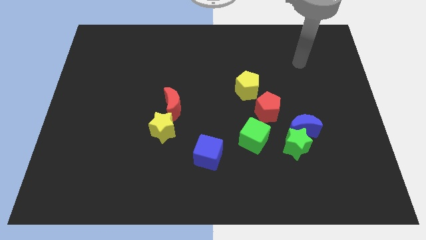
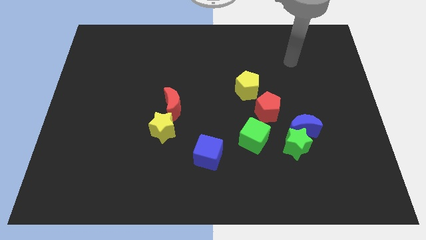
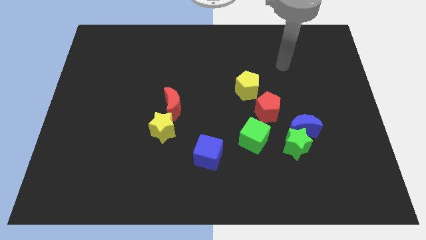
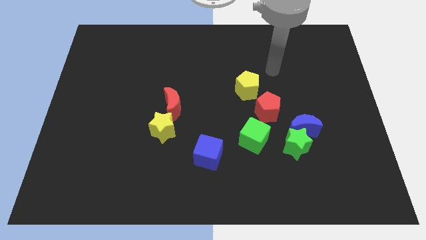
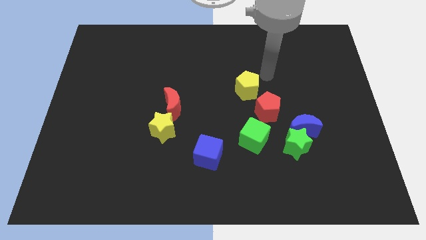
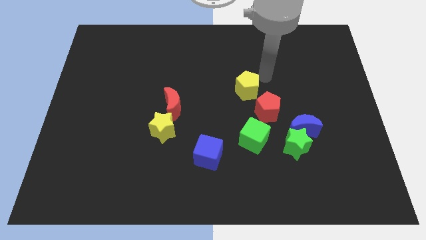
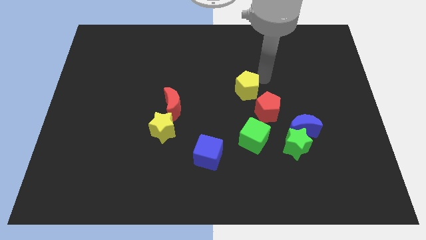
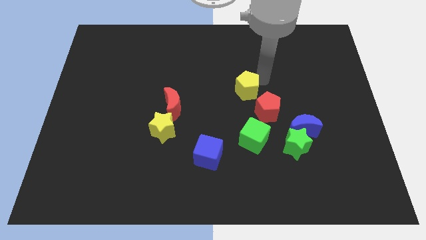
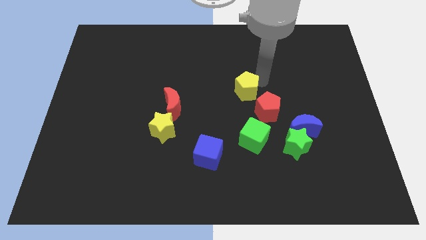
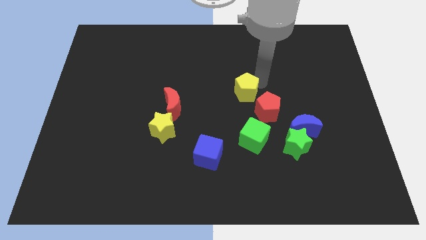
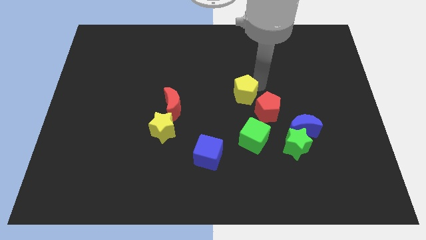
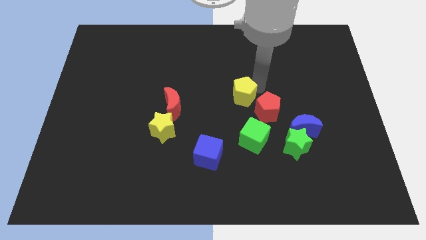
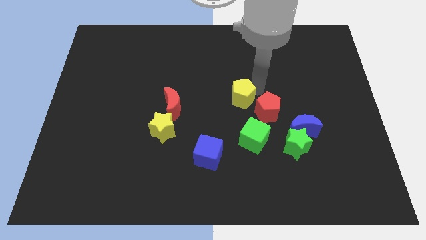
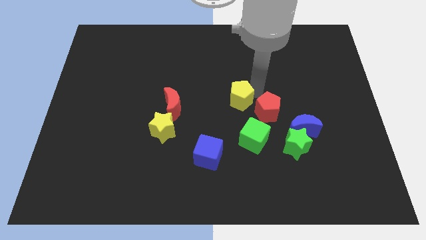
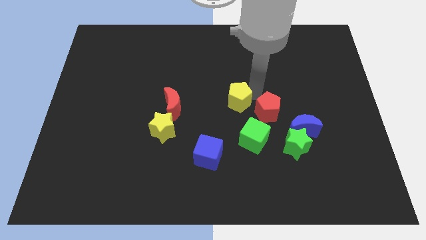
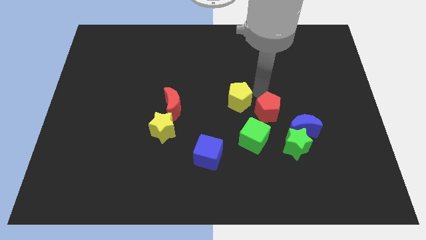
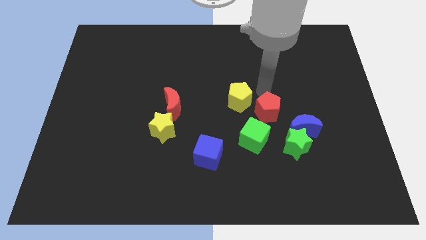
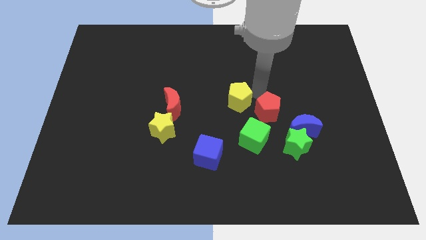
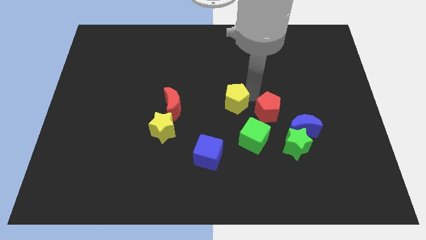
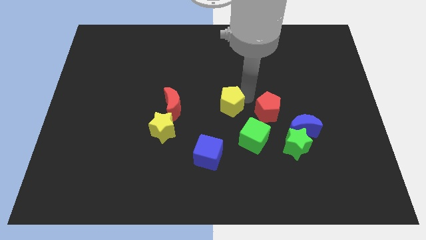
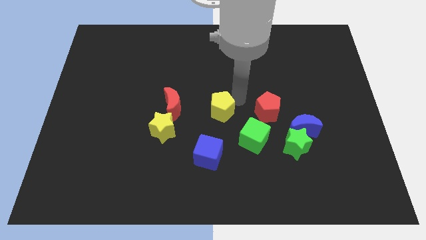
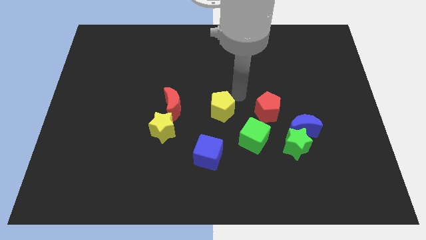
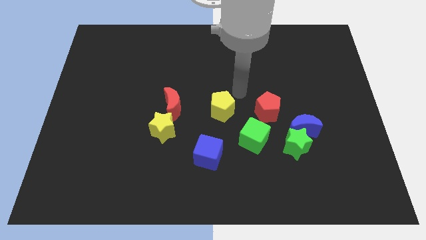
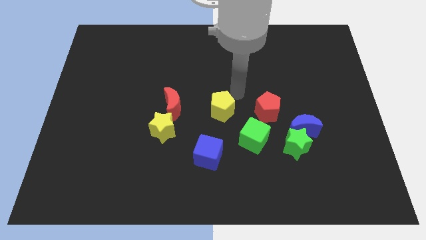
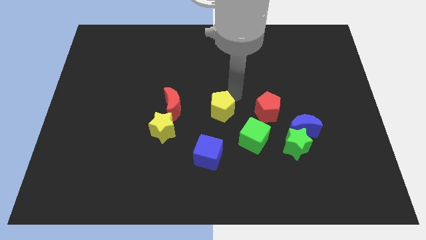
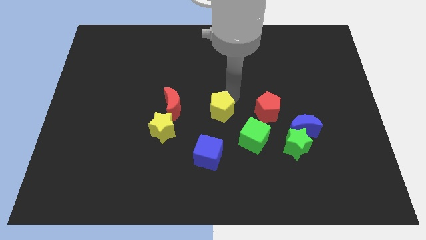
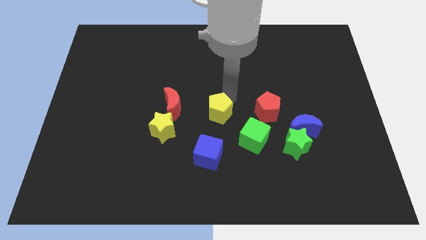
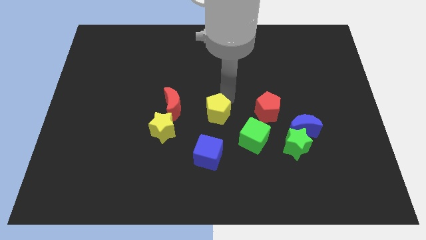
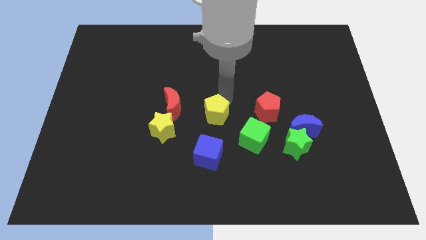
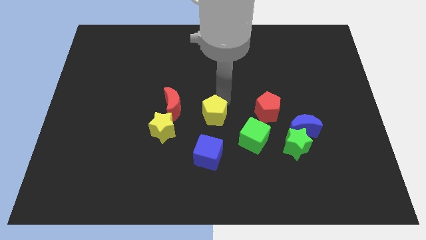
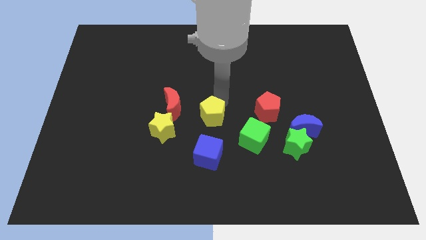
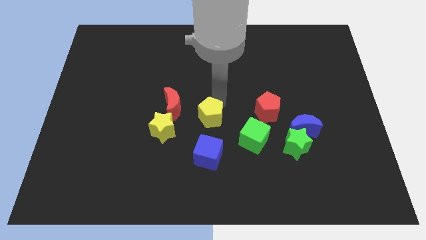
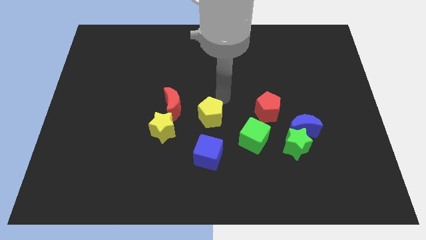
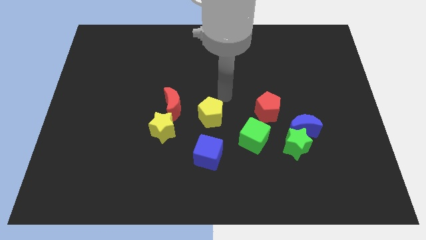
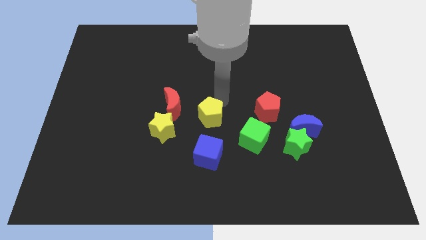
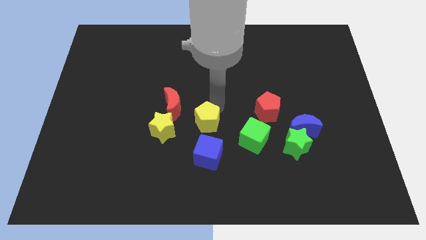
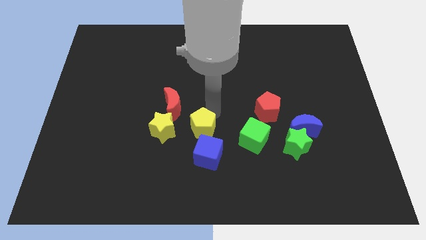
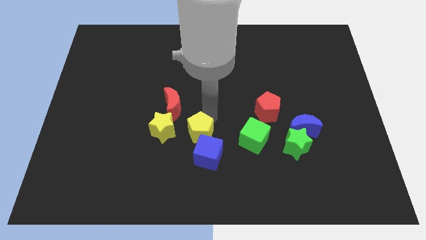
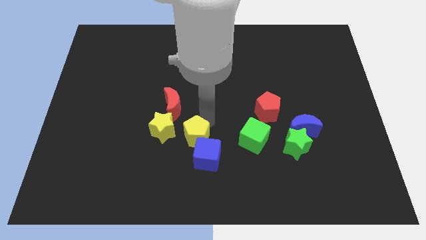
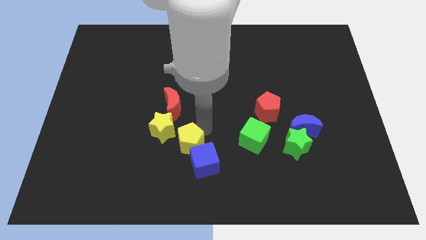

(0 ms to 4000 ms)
push the yellow pentagon downwards and to the left

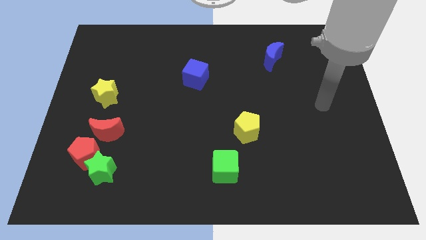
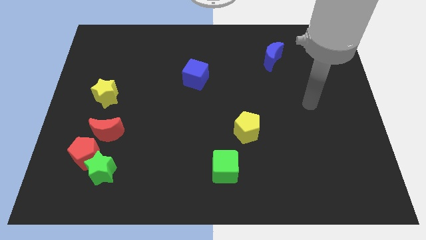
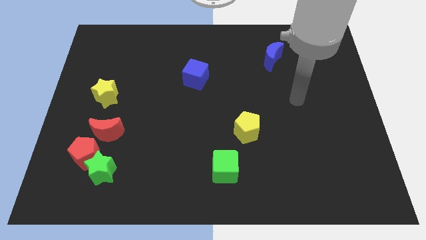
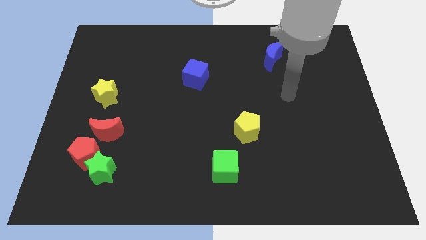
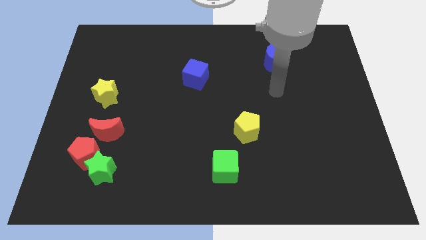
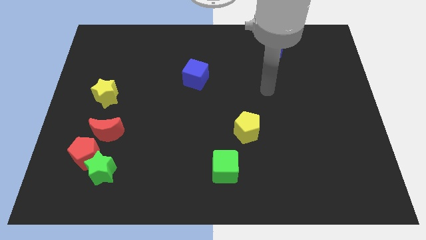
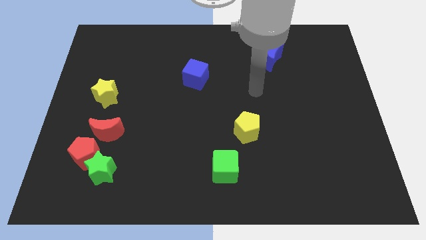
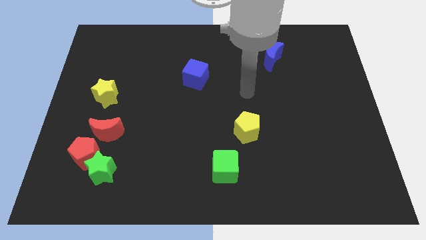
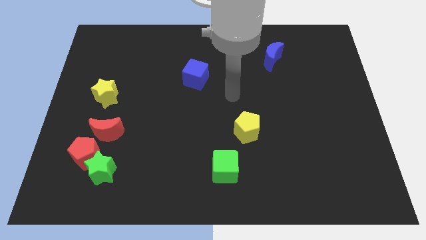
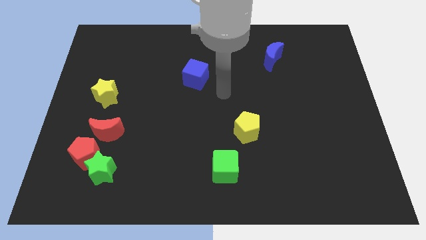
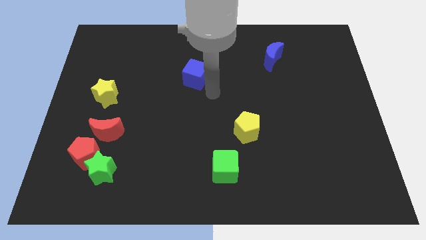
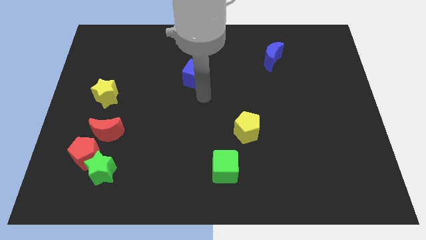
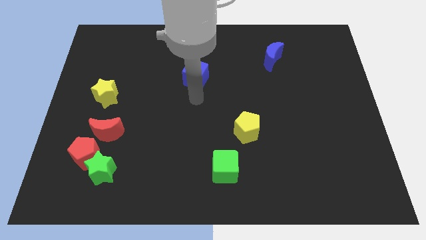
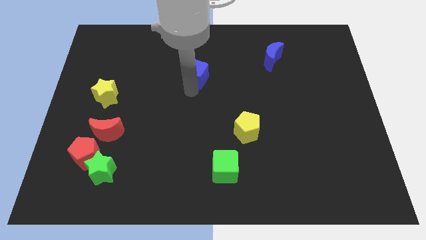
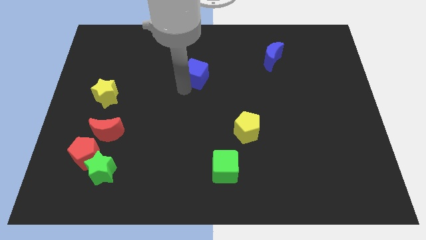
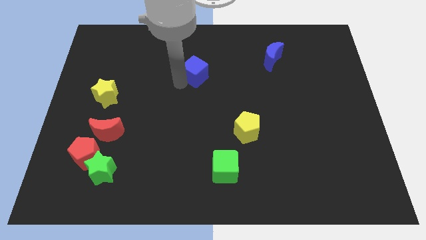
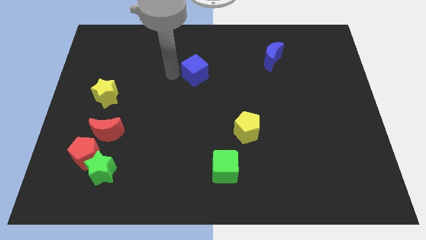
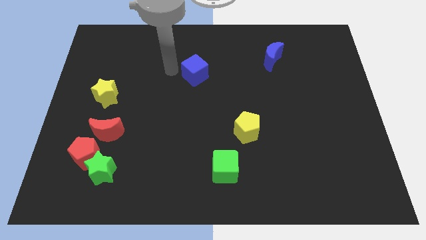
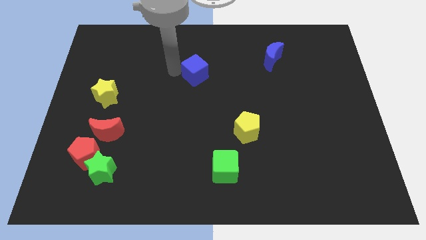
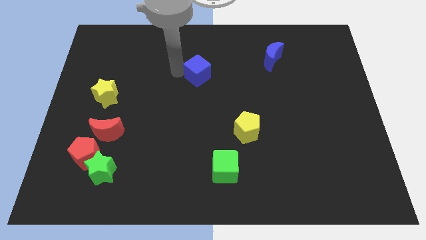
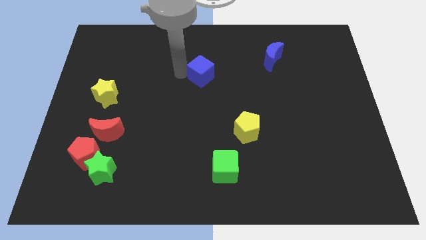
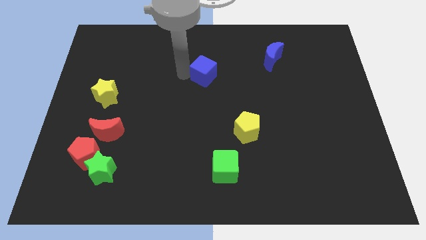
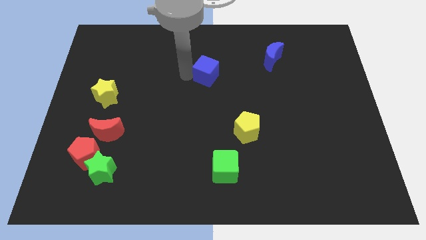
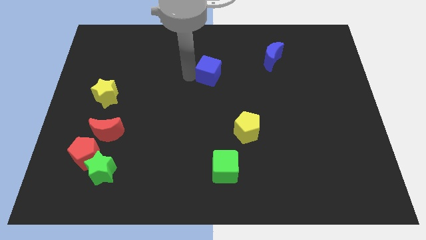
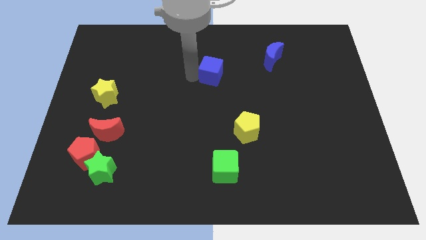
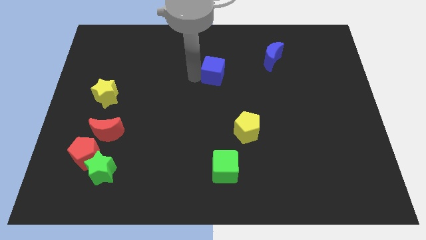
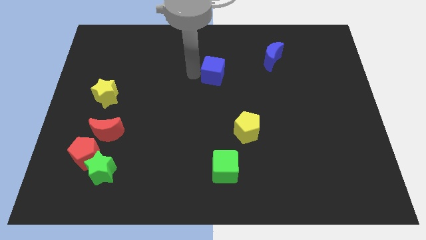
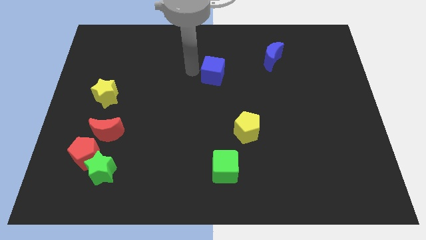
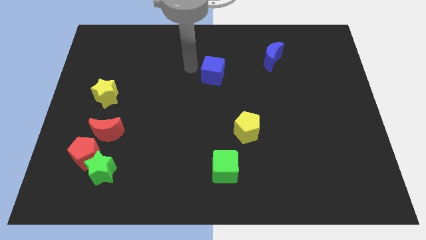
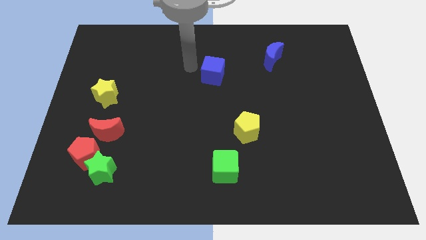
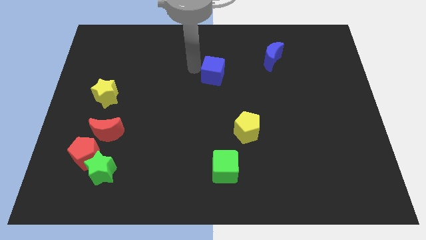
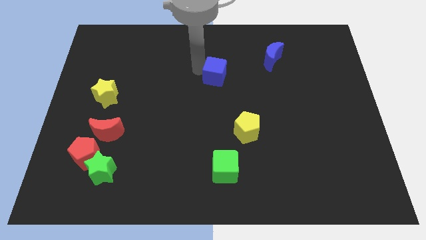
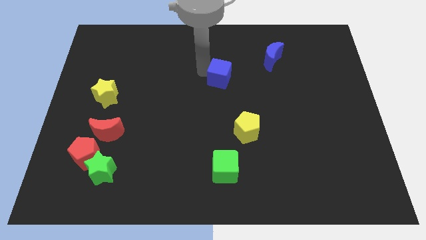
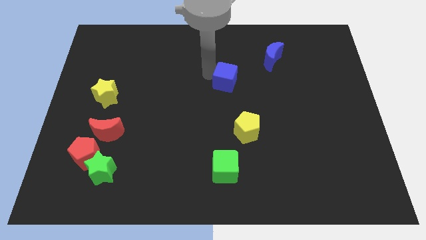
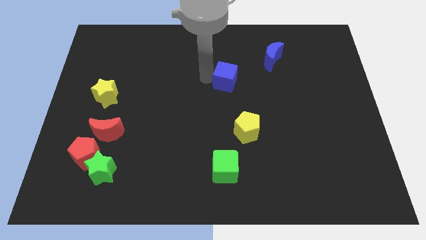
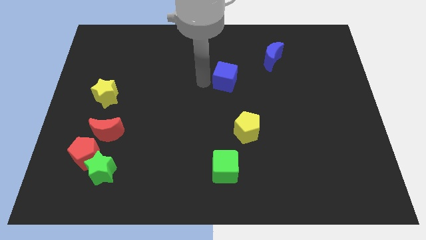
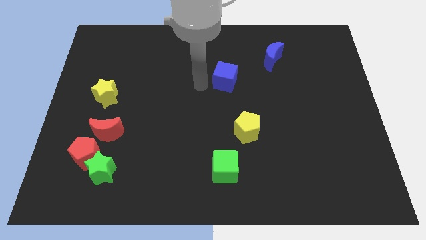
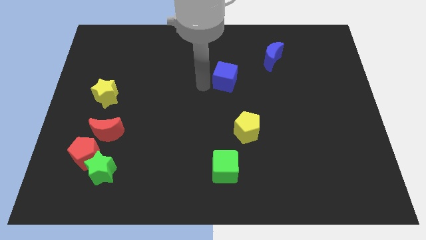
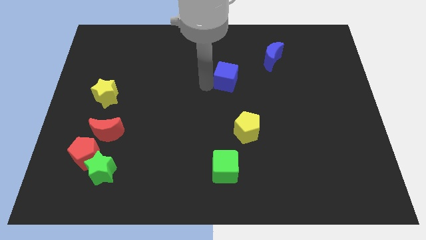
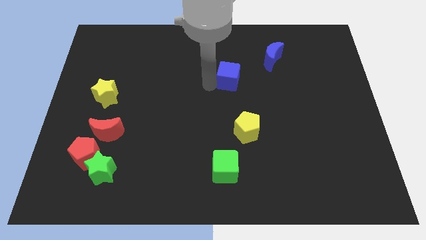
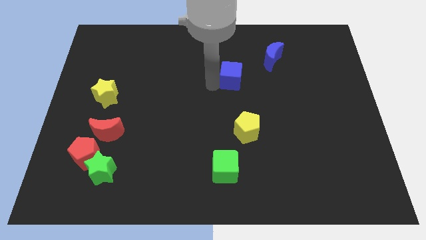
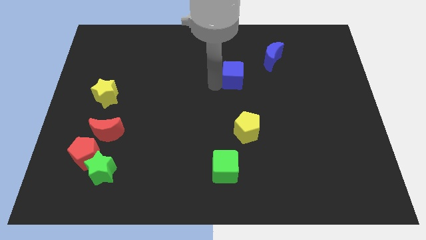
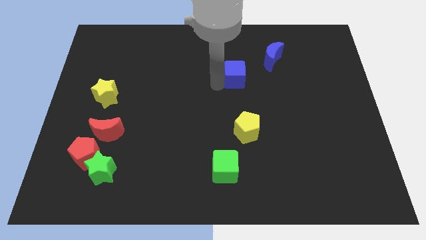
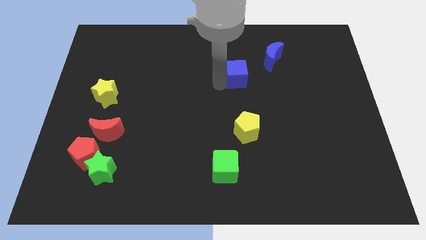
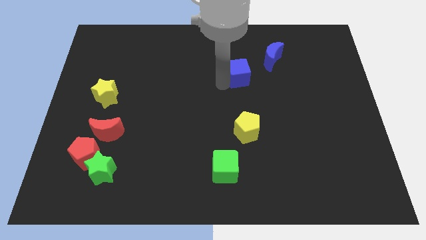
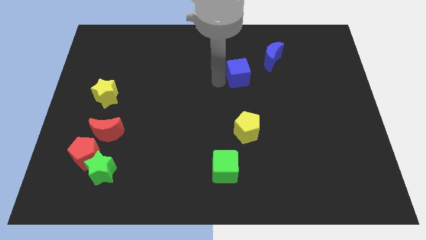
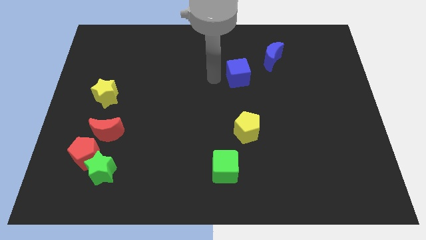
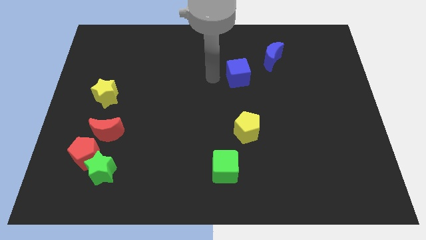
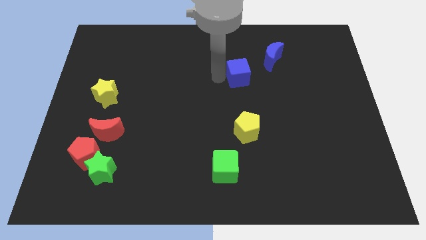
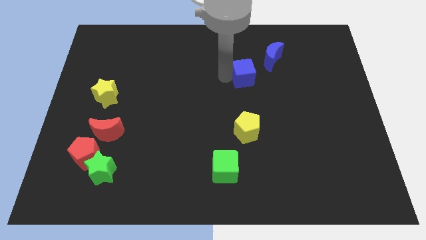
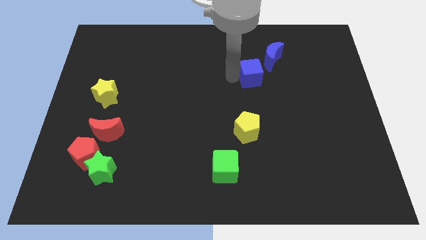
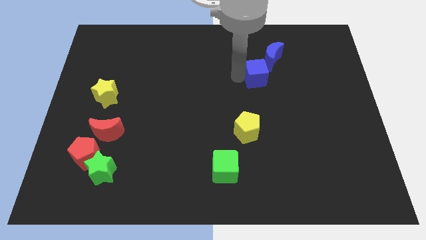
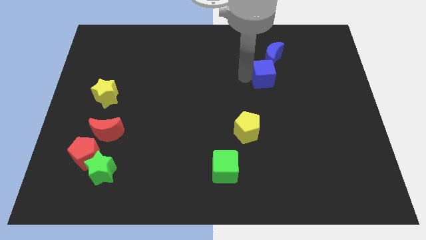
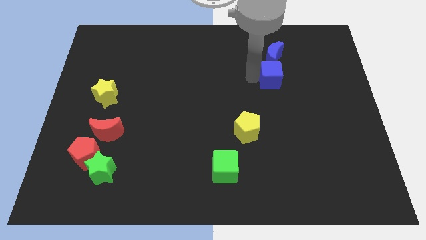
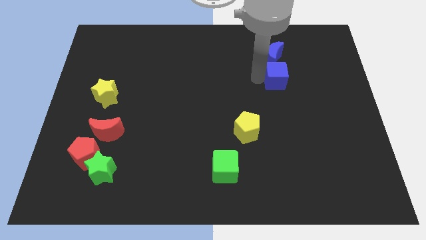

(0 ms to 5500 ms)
slide the blue cube right
